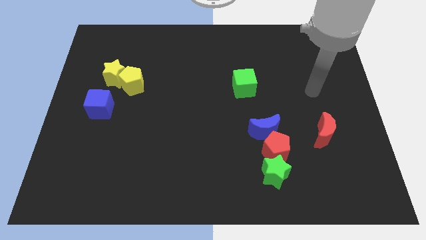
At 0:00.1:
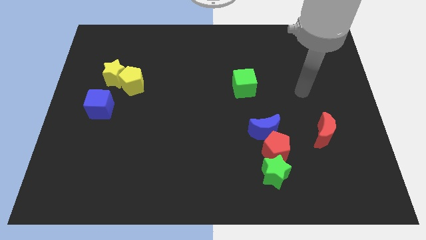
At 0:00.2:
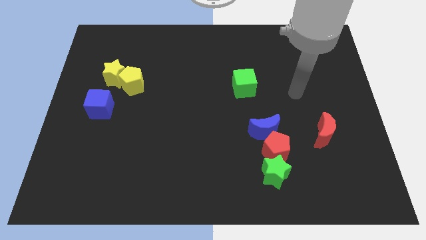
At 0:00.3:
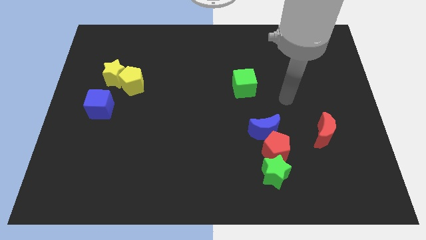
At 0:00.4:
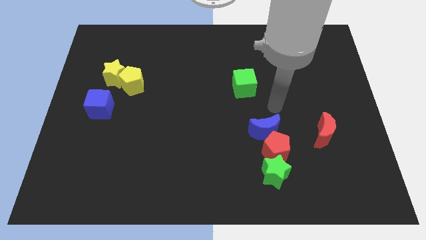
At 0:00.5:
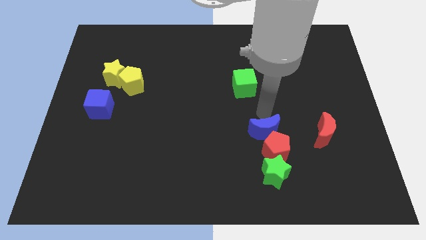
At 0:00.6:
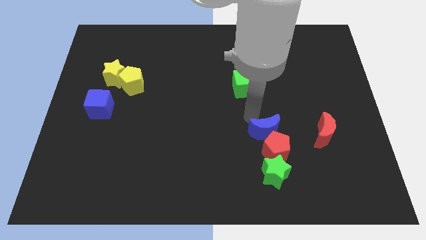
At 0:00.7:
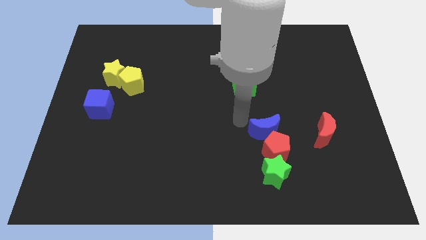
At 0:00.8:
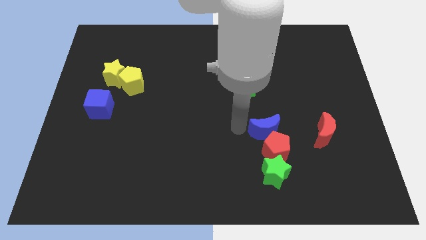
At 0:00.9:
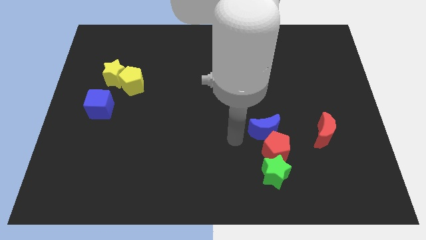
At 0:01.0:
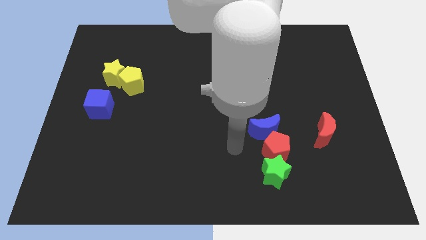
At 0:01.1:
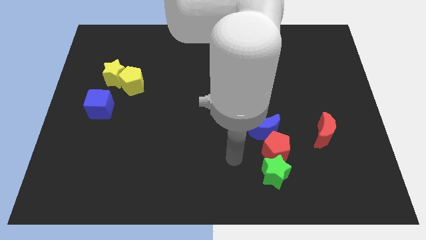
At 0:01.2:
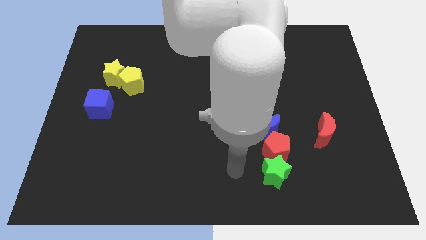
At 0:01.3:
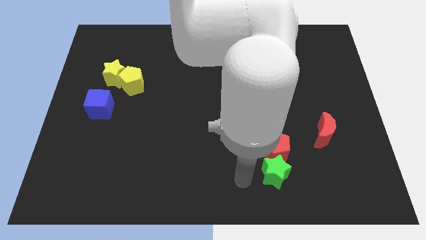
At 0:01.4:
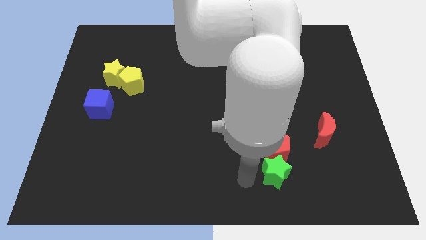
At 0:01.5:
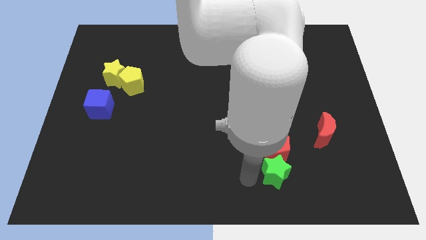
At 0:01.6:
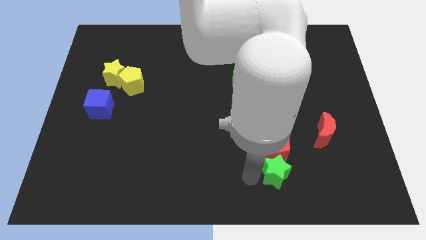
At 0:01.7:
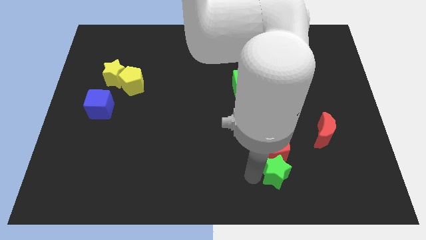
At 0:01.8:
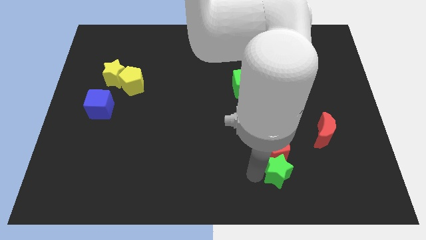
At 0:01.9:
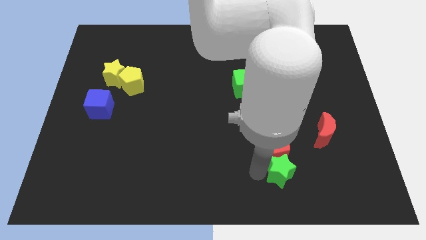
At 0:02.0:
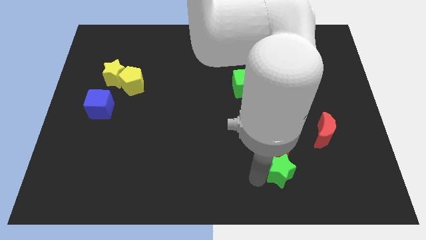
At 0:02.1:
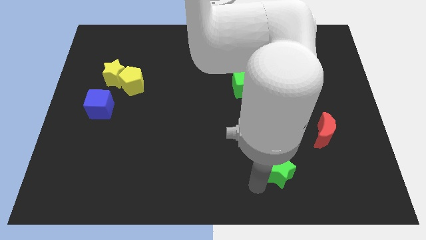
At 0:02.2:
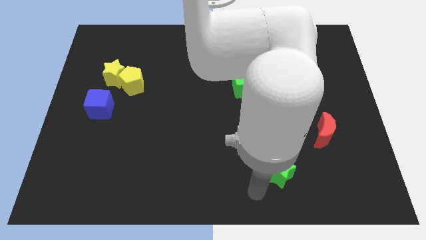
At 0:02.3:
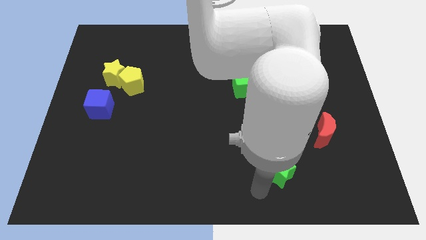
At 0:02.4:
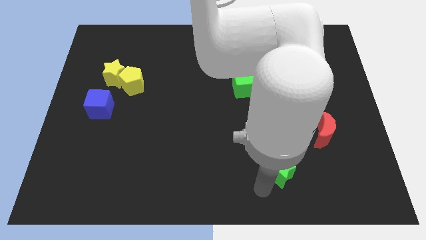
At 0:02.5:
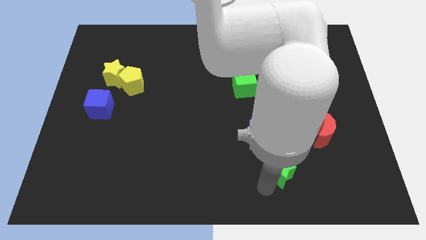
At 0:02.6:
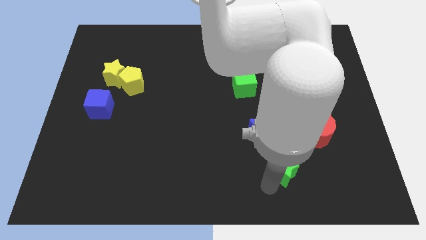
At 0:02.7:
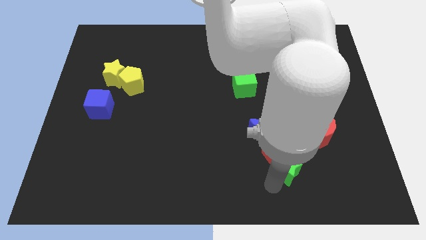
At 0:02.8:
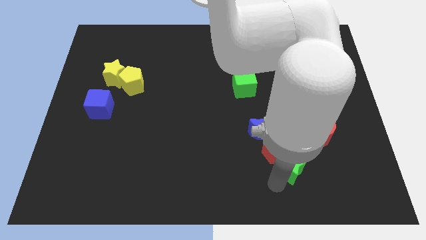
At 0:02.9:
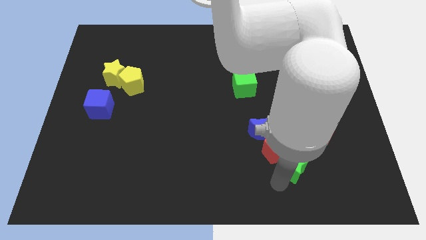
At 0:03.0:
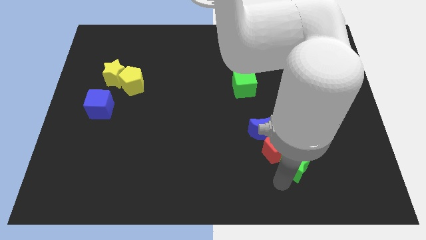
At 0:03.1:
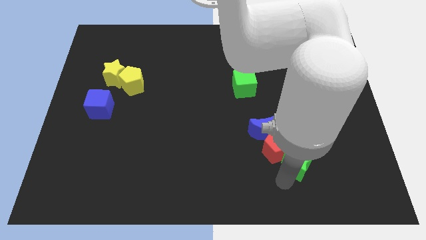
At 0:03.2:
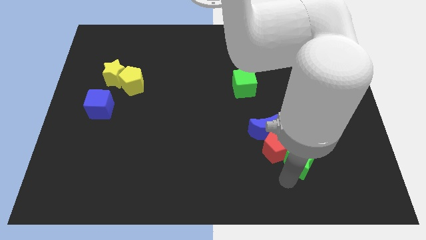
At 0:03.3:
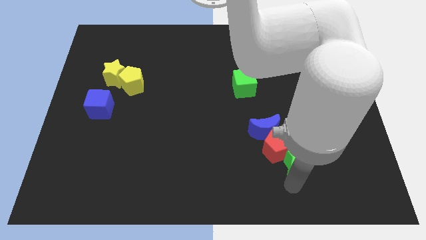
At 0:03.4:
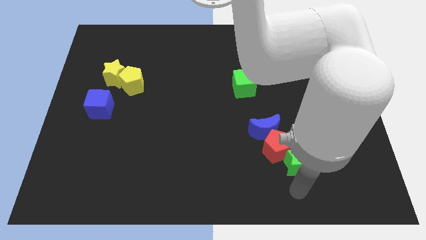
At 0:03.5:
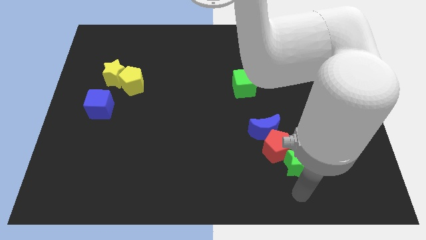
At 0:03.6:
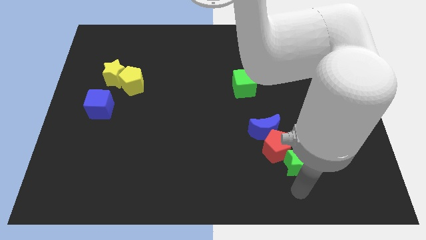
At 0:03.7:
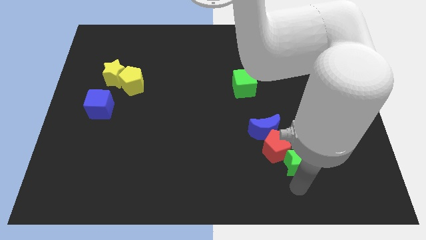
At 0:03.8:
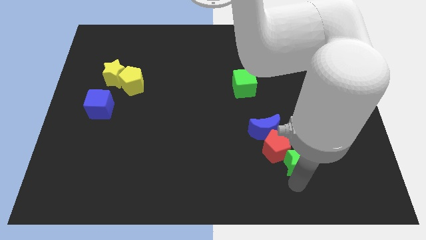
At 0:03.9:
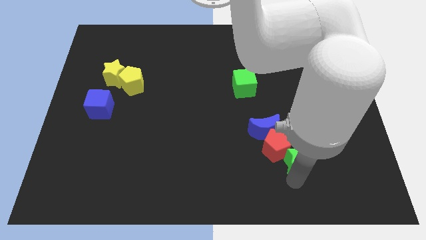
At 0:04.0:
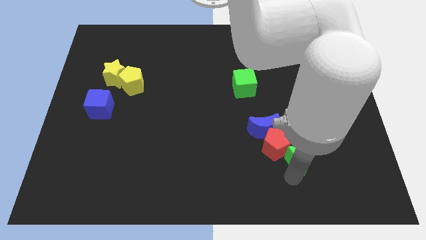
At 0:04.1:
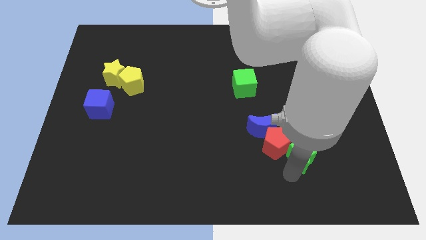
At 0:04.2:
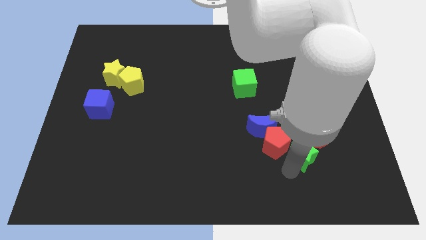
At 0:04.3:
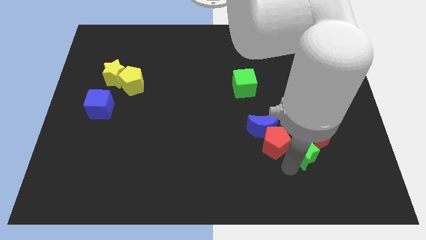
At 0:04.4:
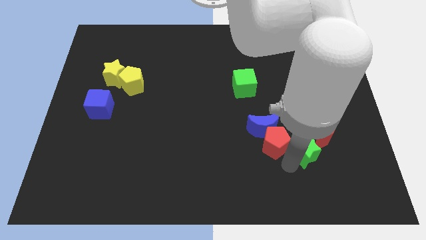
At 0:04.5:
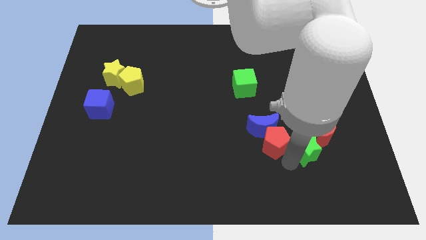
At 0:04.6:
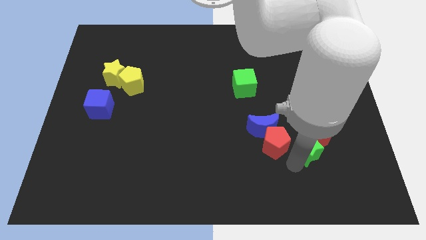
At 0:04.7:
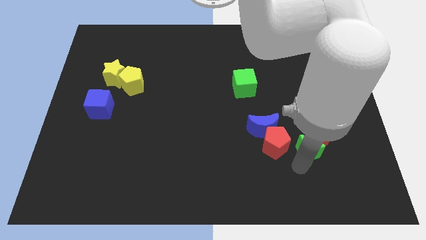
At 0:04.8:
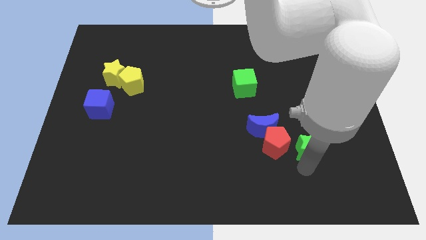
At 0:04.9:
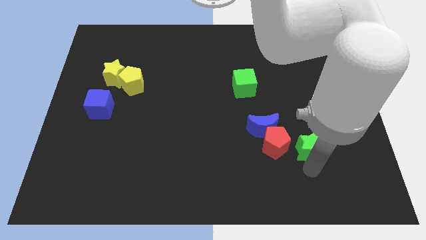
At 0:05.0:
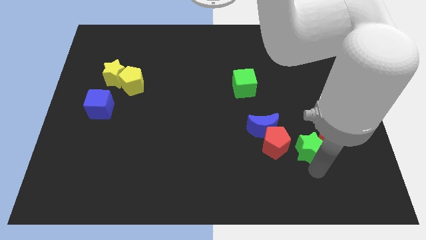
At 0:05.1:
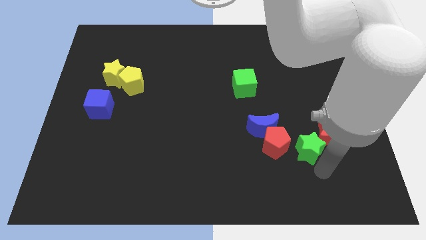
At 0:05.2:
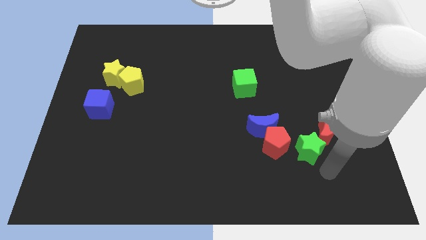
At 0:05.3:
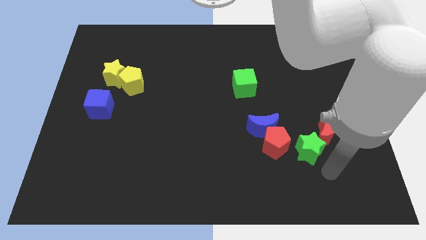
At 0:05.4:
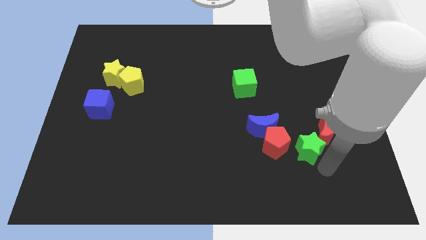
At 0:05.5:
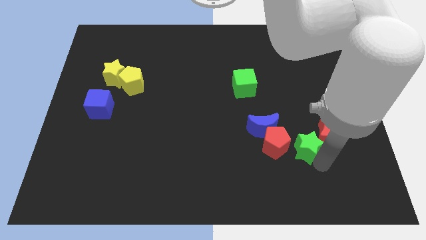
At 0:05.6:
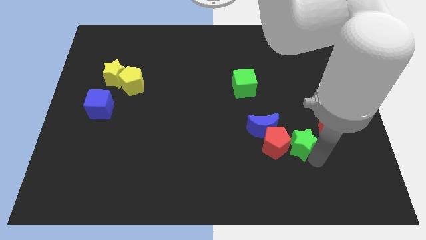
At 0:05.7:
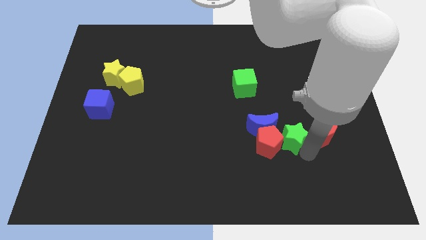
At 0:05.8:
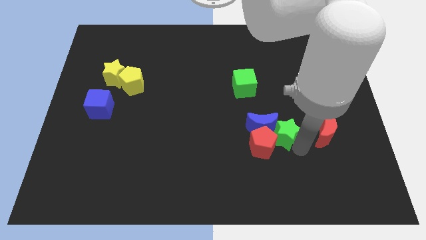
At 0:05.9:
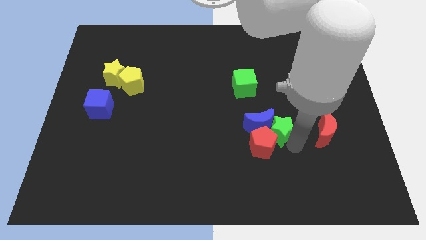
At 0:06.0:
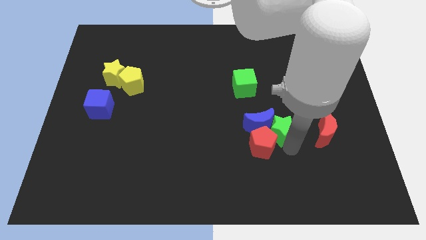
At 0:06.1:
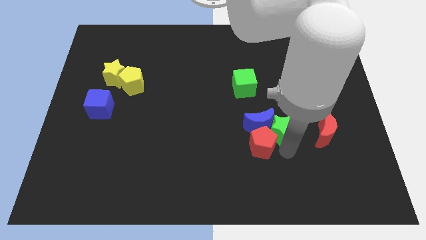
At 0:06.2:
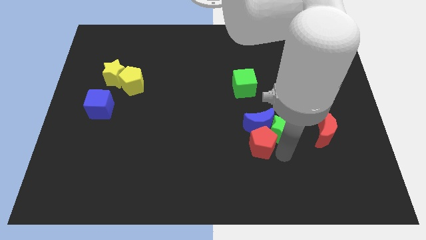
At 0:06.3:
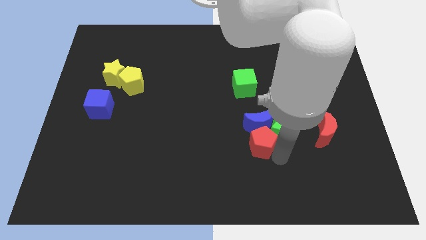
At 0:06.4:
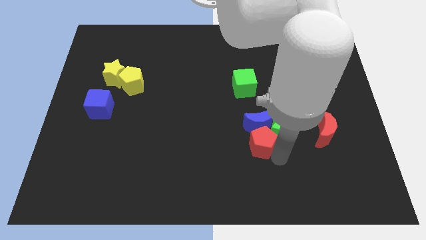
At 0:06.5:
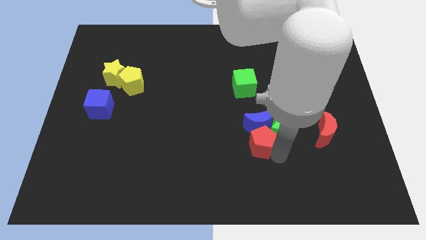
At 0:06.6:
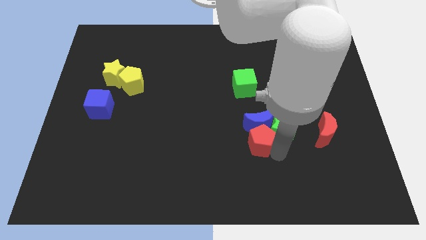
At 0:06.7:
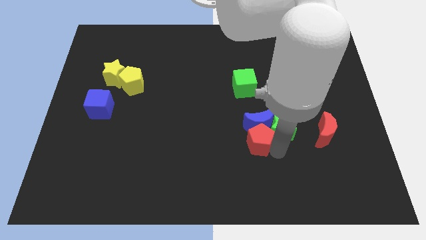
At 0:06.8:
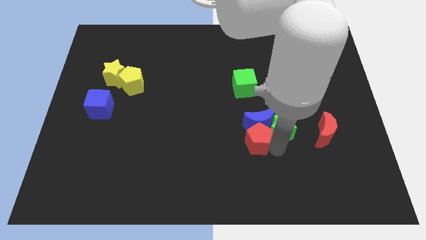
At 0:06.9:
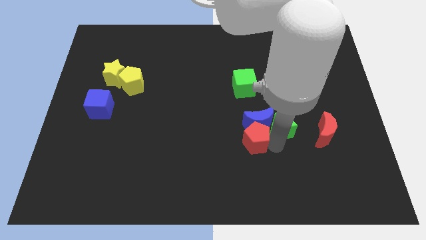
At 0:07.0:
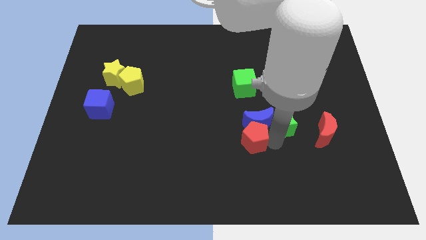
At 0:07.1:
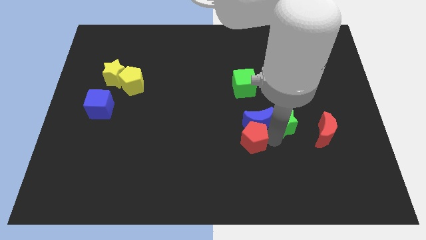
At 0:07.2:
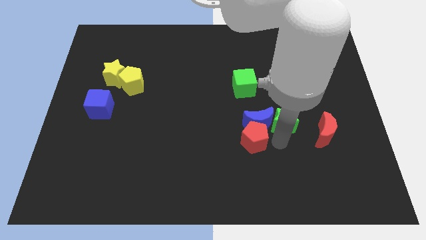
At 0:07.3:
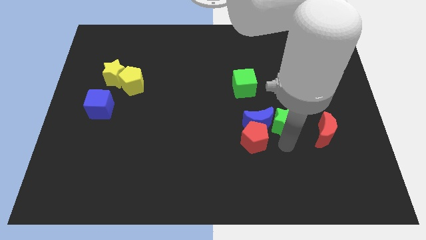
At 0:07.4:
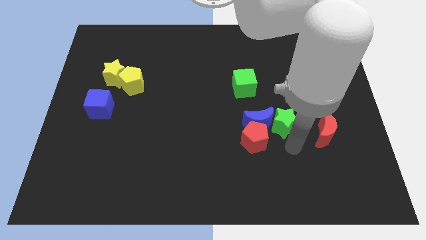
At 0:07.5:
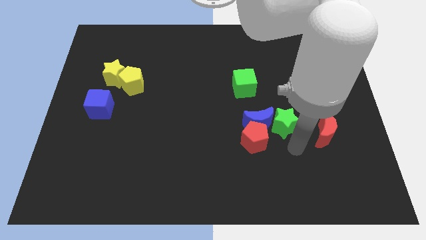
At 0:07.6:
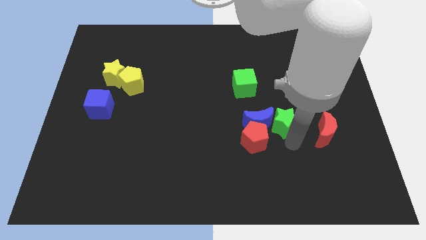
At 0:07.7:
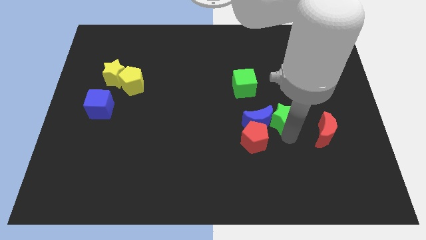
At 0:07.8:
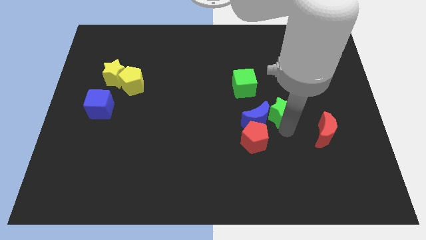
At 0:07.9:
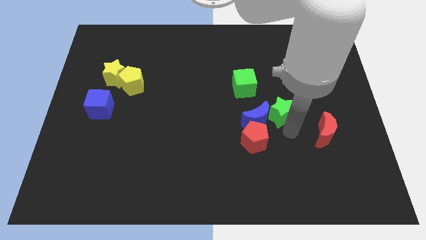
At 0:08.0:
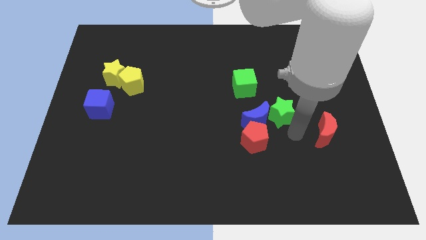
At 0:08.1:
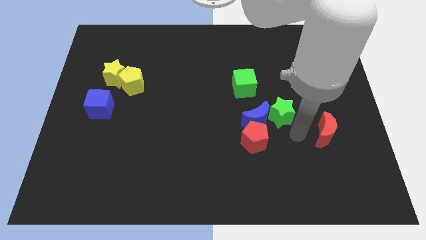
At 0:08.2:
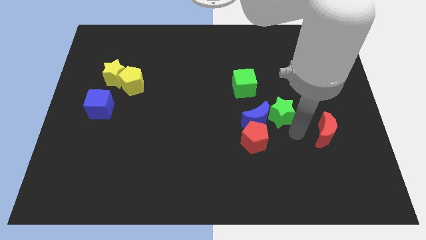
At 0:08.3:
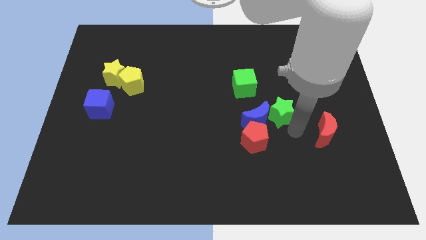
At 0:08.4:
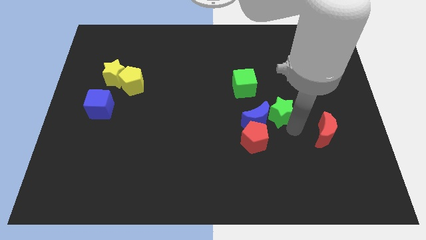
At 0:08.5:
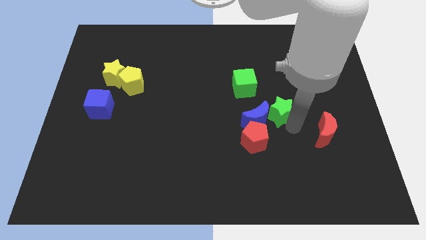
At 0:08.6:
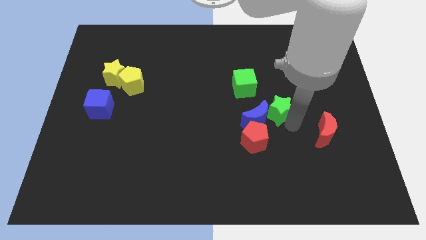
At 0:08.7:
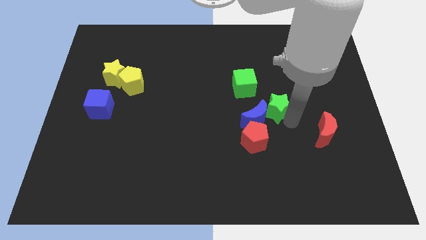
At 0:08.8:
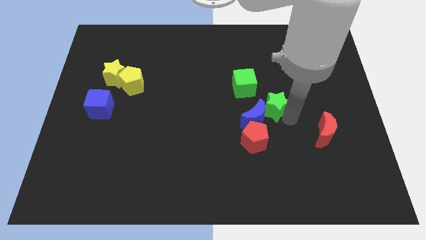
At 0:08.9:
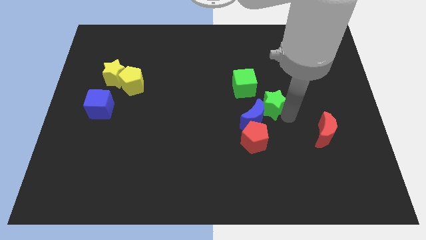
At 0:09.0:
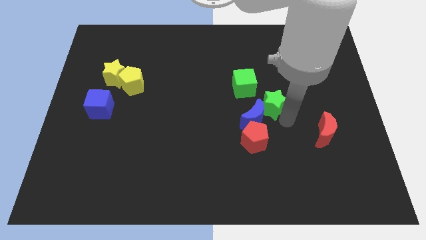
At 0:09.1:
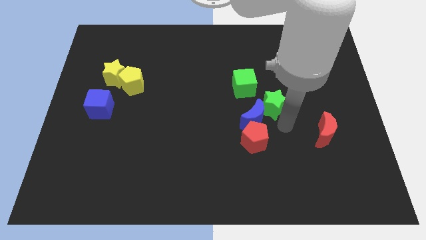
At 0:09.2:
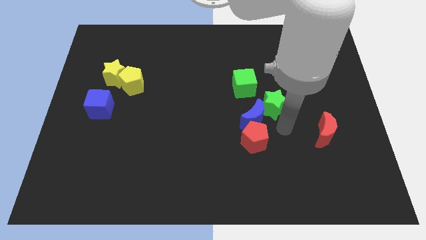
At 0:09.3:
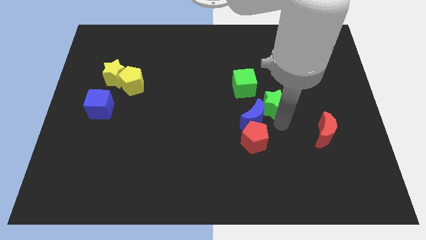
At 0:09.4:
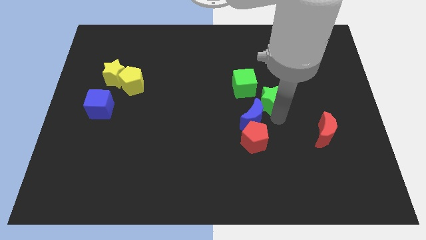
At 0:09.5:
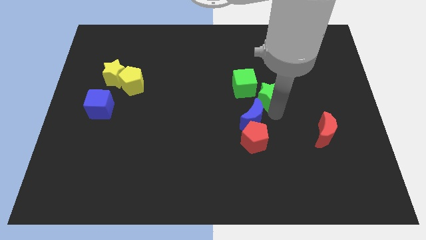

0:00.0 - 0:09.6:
slide the green star up
